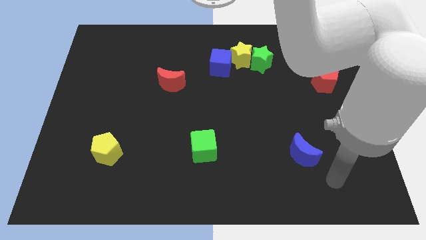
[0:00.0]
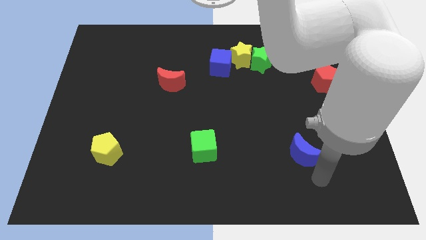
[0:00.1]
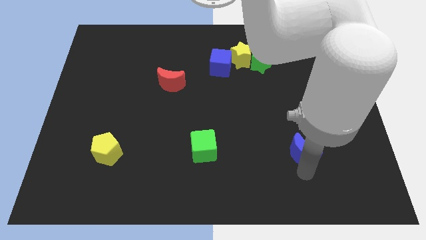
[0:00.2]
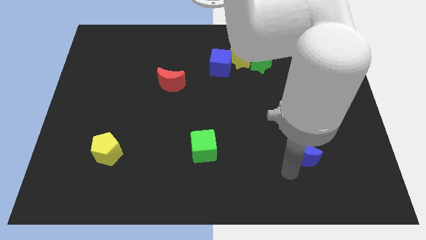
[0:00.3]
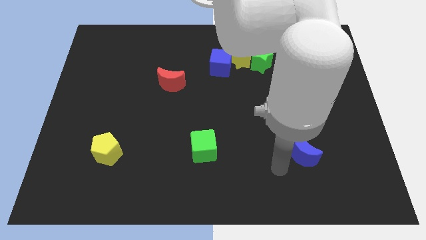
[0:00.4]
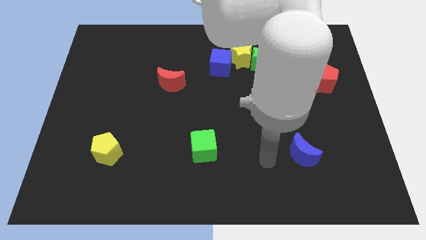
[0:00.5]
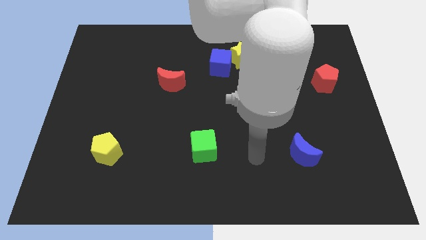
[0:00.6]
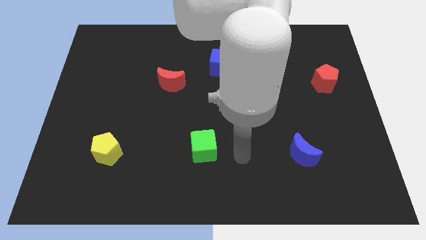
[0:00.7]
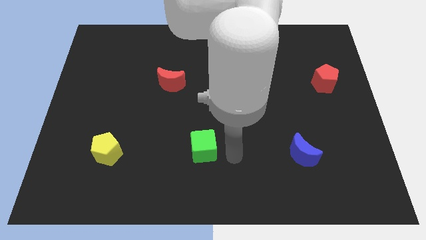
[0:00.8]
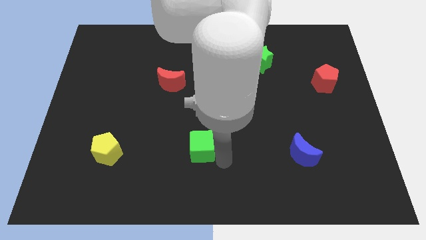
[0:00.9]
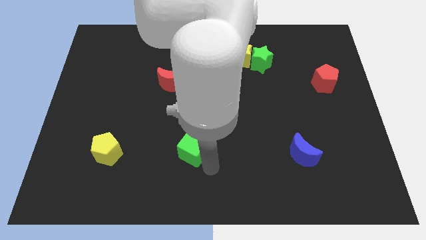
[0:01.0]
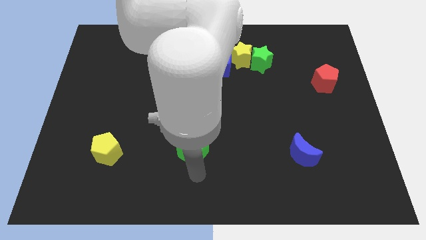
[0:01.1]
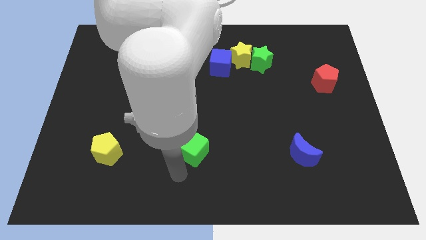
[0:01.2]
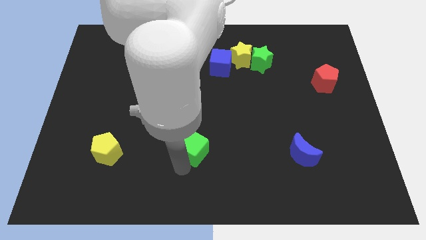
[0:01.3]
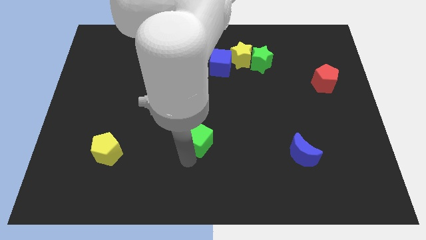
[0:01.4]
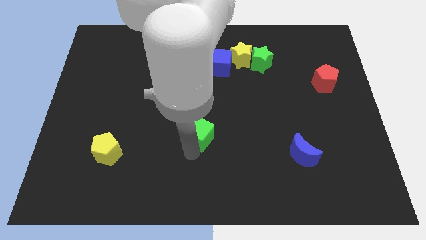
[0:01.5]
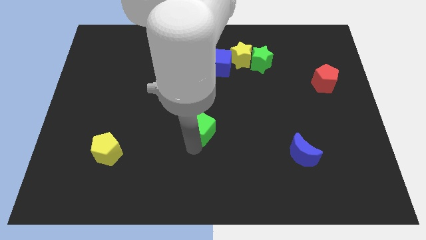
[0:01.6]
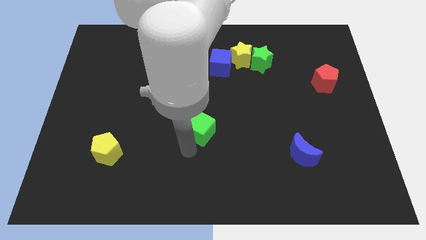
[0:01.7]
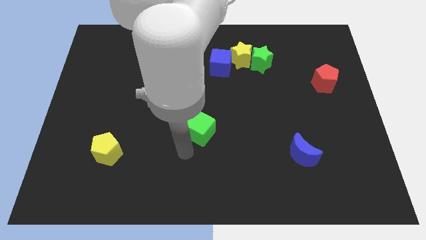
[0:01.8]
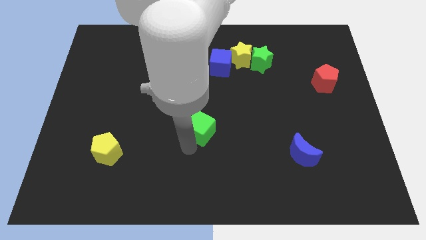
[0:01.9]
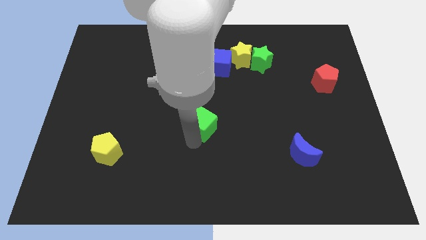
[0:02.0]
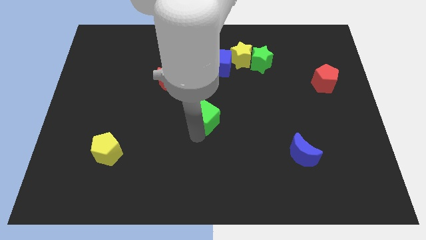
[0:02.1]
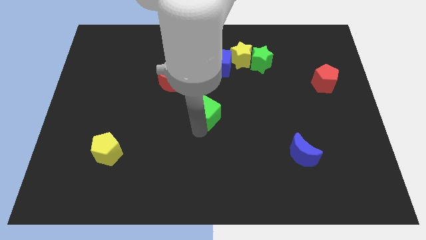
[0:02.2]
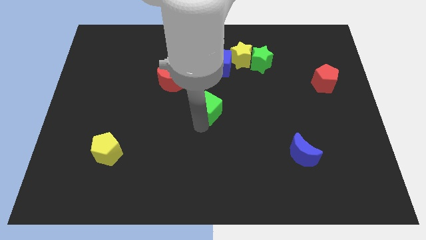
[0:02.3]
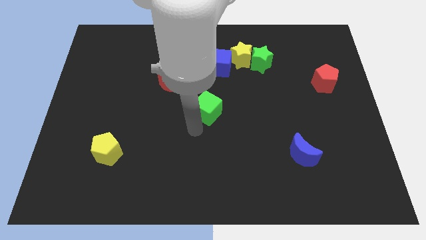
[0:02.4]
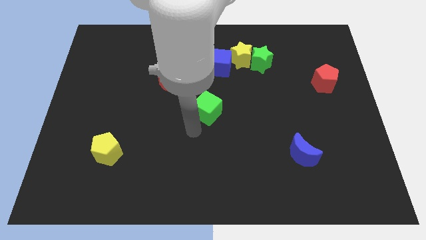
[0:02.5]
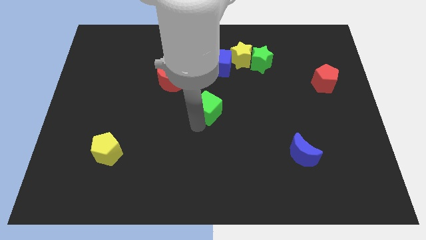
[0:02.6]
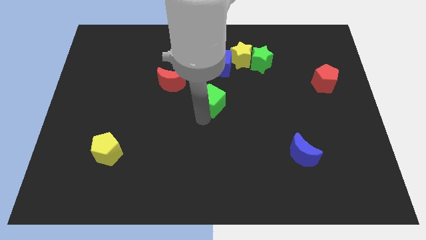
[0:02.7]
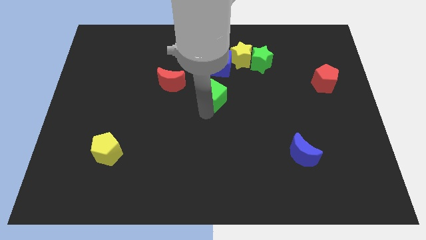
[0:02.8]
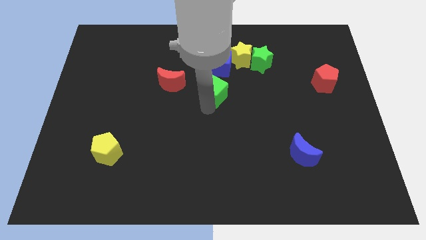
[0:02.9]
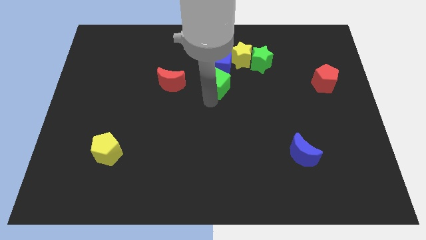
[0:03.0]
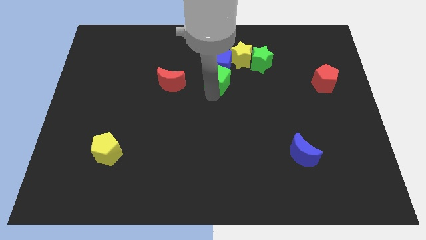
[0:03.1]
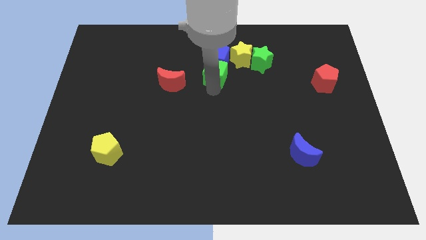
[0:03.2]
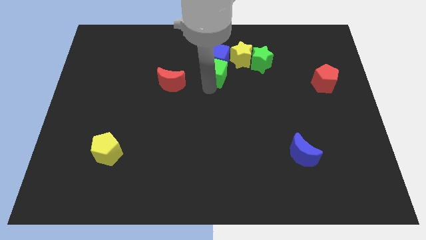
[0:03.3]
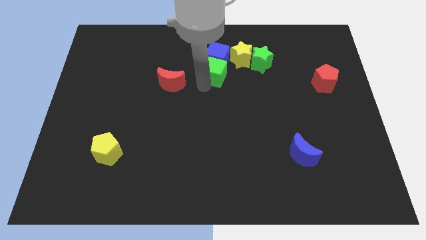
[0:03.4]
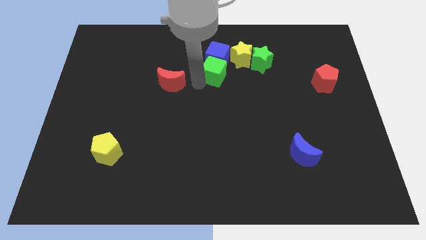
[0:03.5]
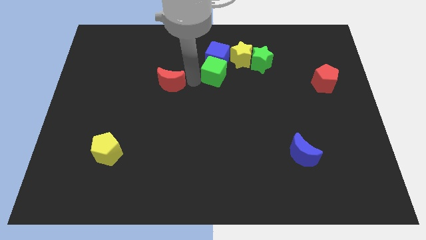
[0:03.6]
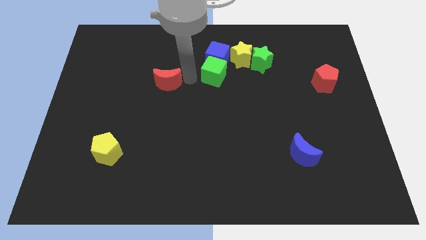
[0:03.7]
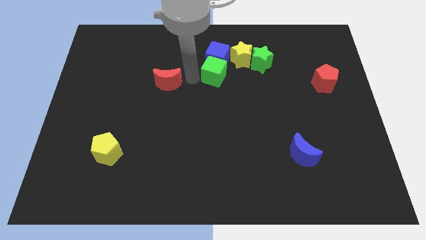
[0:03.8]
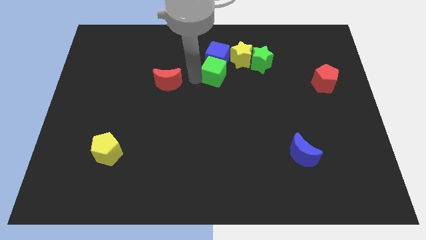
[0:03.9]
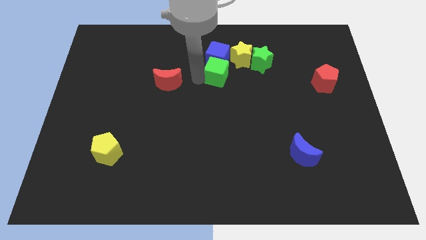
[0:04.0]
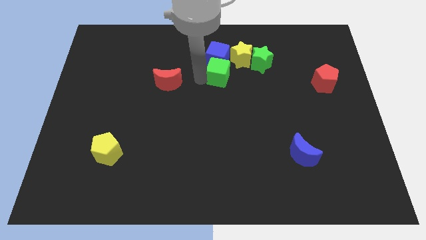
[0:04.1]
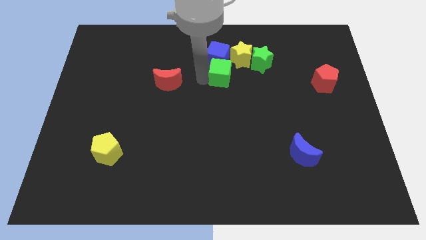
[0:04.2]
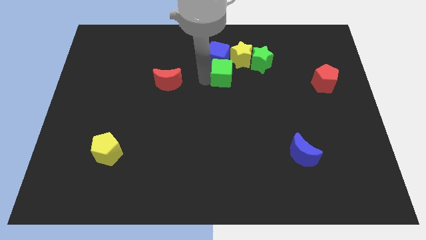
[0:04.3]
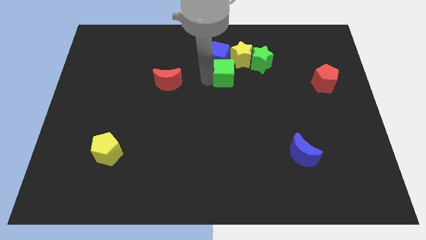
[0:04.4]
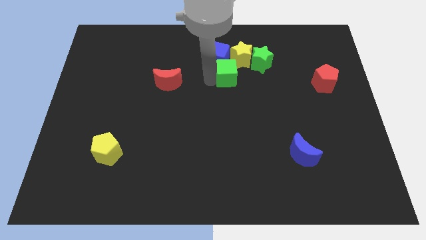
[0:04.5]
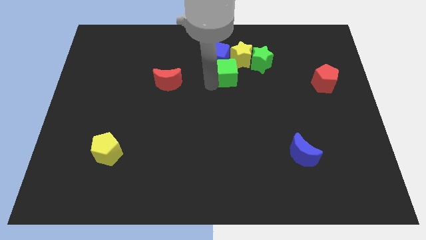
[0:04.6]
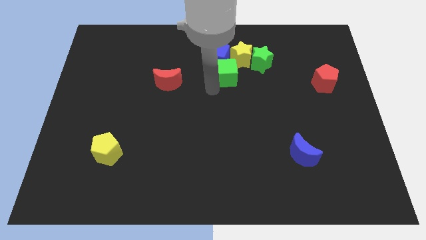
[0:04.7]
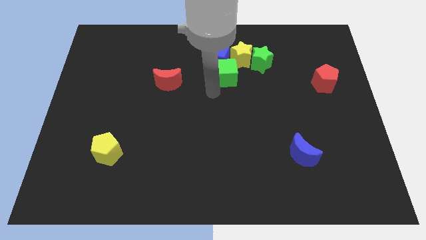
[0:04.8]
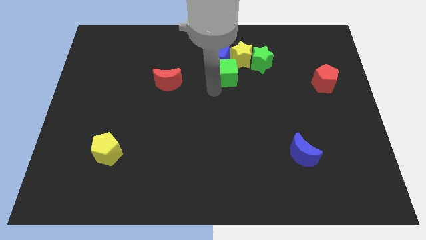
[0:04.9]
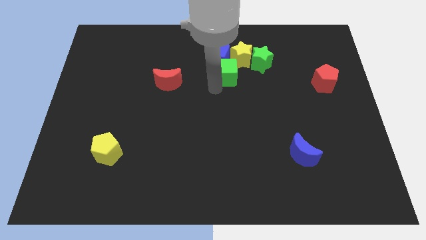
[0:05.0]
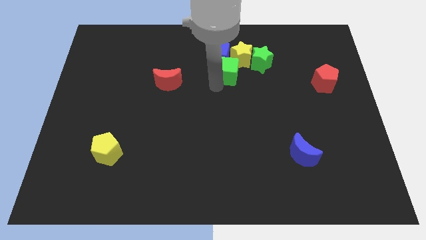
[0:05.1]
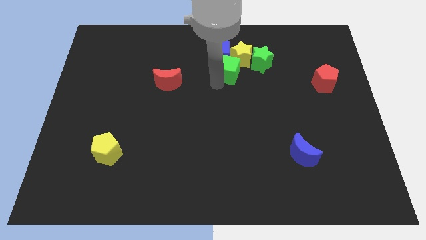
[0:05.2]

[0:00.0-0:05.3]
slide the green cube to the yellow star

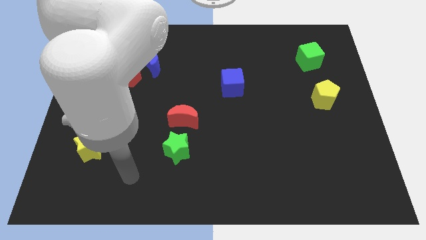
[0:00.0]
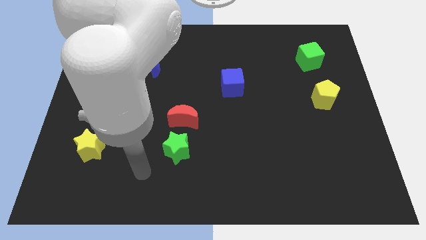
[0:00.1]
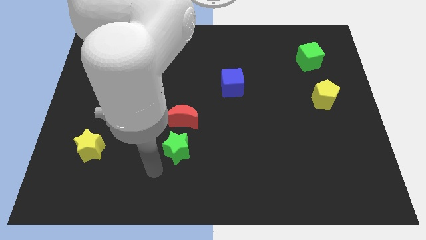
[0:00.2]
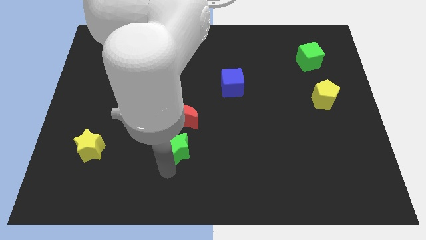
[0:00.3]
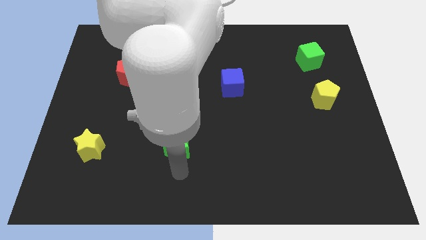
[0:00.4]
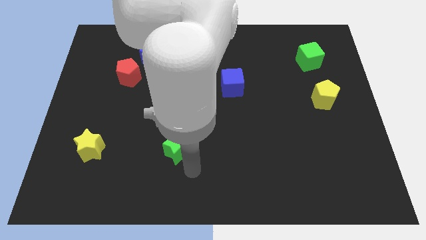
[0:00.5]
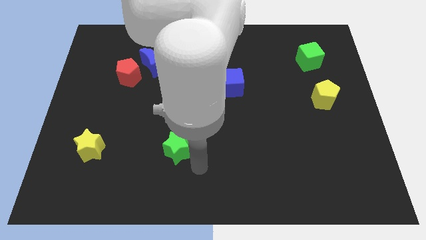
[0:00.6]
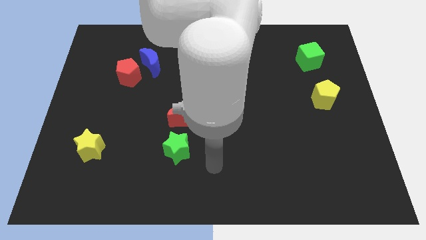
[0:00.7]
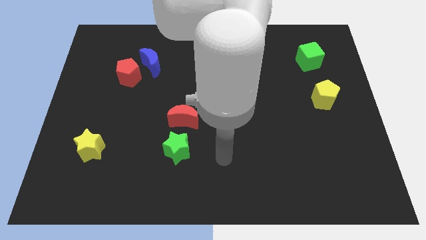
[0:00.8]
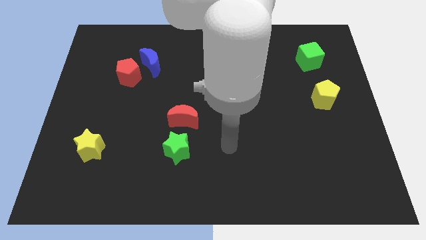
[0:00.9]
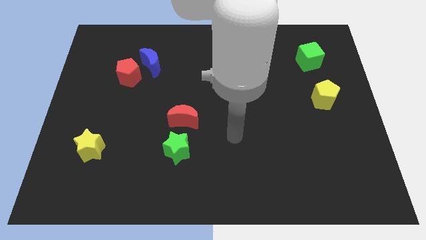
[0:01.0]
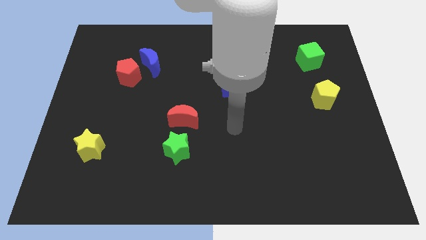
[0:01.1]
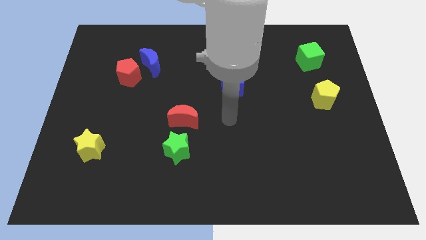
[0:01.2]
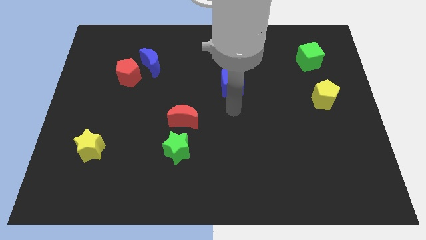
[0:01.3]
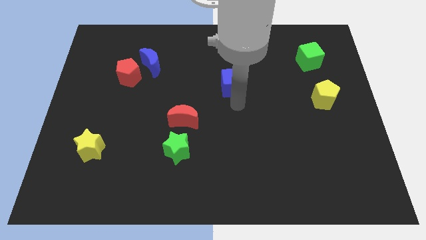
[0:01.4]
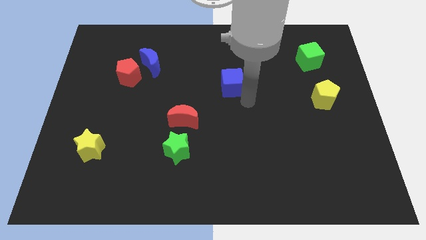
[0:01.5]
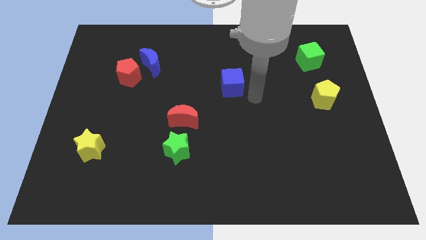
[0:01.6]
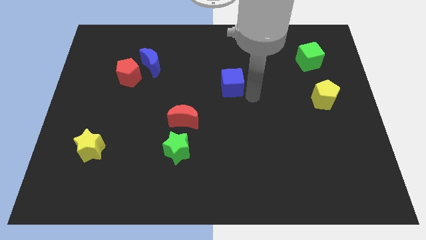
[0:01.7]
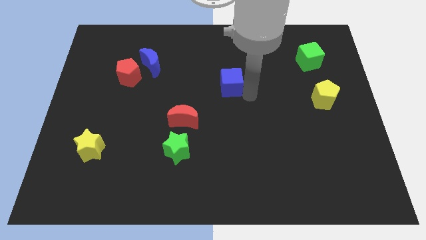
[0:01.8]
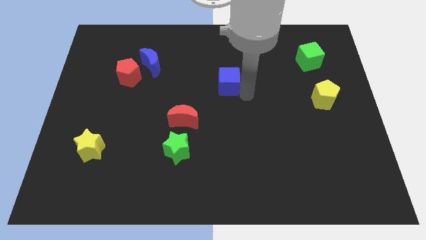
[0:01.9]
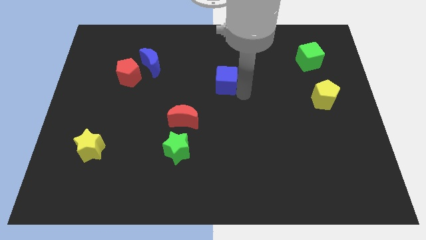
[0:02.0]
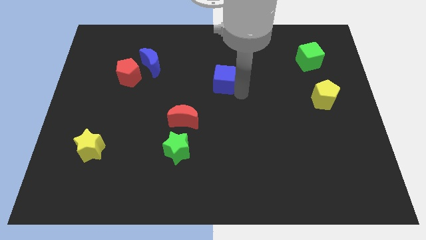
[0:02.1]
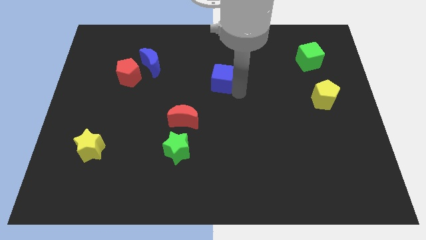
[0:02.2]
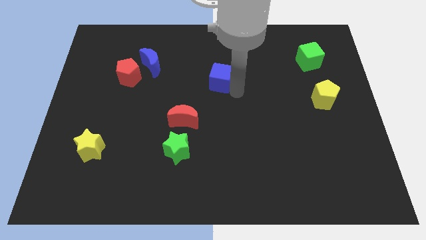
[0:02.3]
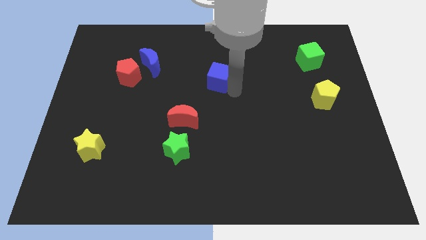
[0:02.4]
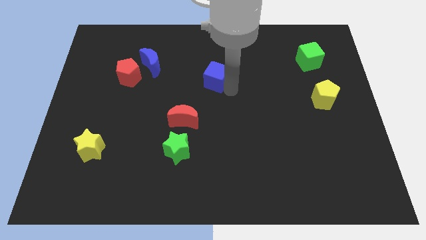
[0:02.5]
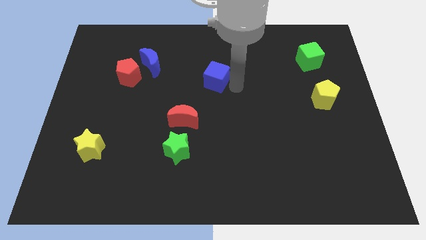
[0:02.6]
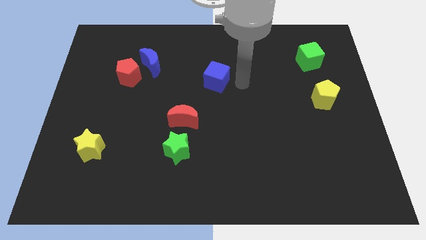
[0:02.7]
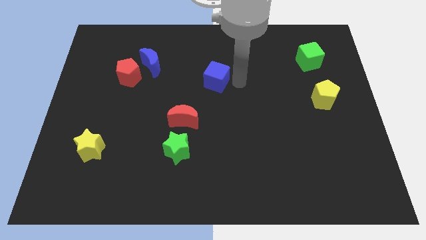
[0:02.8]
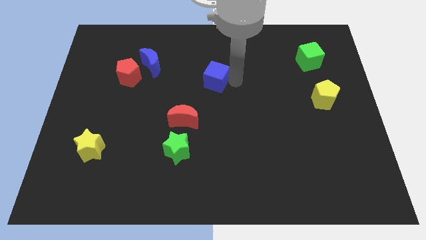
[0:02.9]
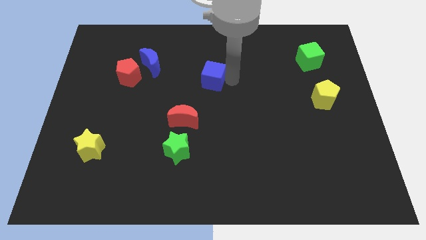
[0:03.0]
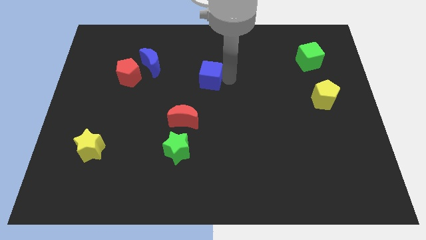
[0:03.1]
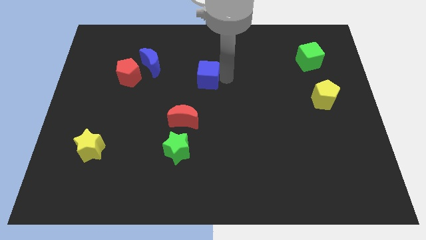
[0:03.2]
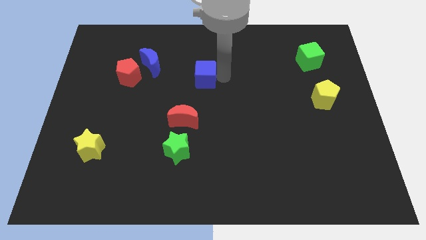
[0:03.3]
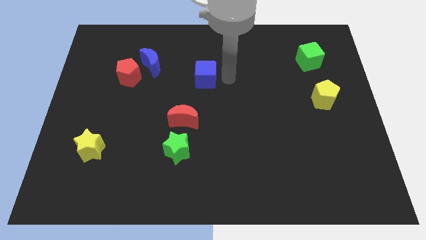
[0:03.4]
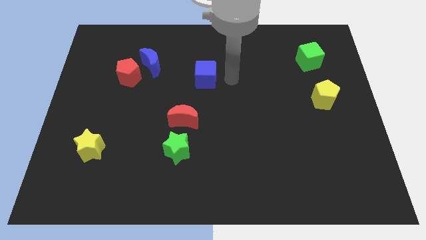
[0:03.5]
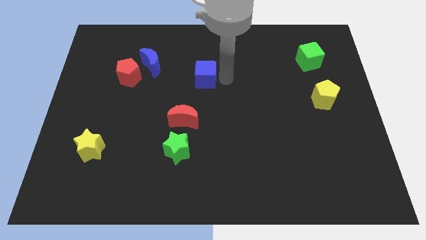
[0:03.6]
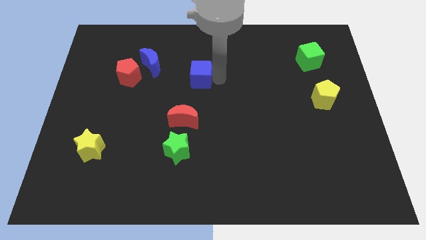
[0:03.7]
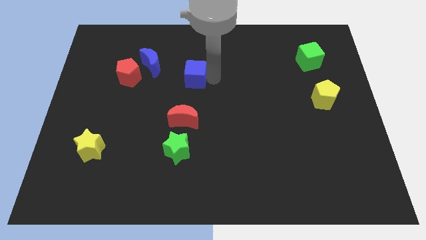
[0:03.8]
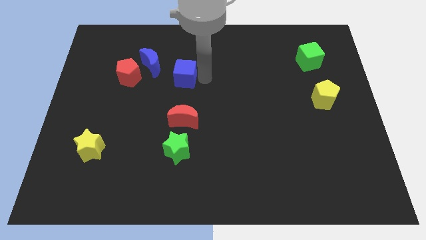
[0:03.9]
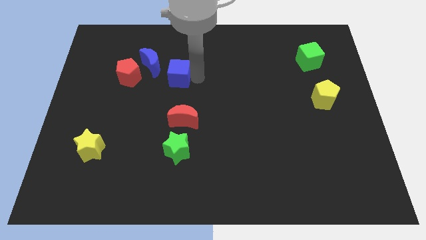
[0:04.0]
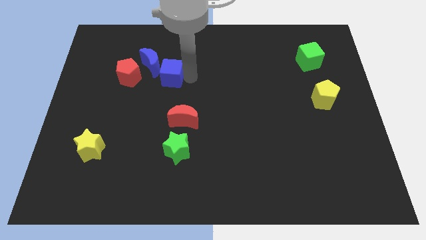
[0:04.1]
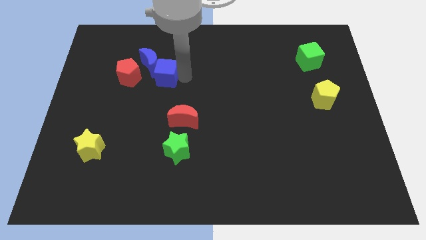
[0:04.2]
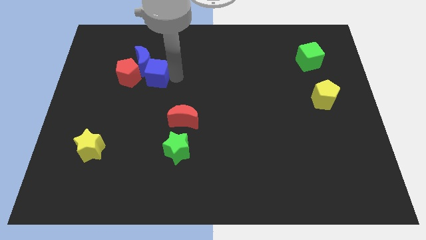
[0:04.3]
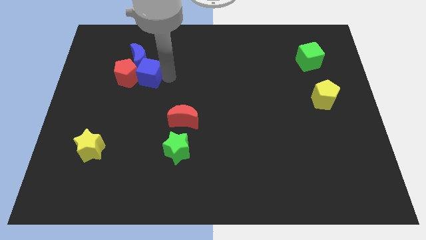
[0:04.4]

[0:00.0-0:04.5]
put the blue cube next to the red pentagon
